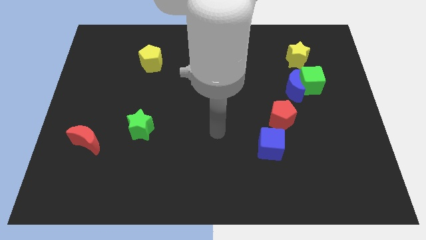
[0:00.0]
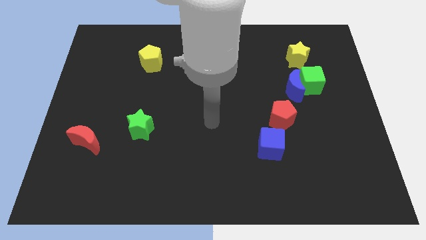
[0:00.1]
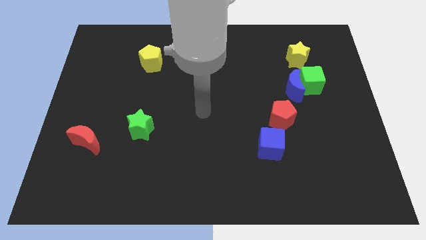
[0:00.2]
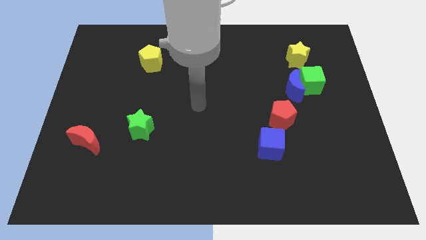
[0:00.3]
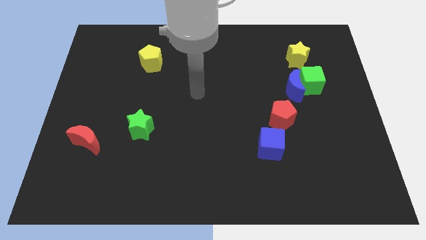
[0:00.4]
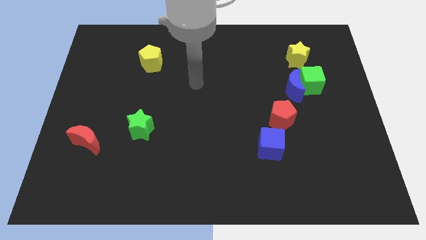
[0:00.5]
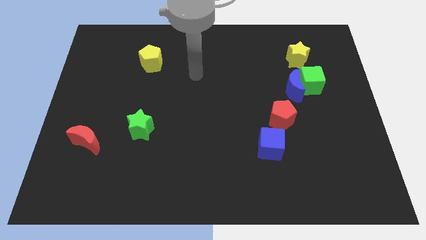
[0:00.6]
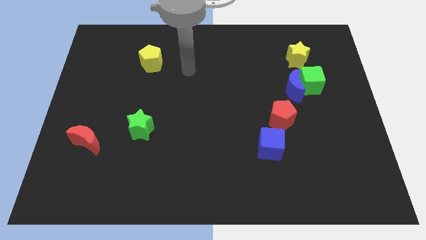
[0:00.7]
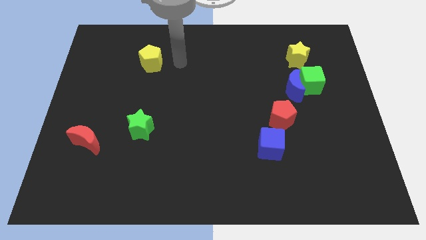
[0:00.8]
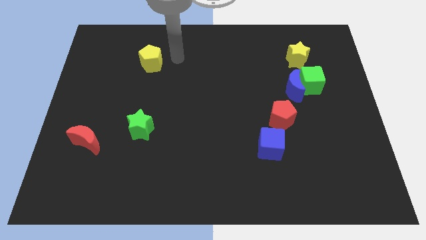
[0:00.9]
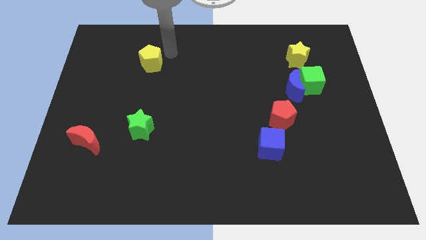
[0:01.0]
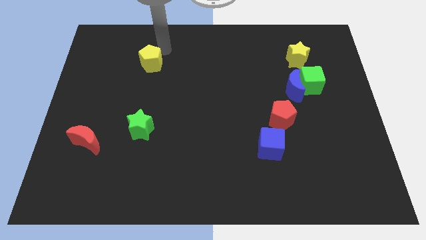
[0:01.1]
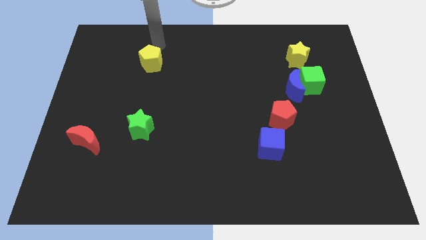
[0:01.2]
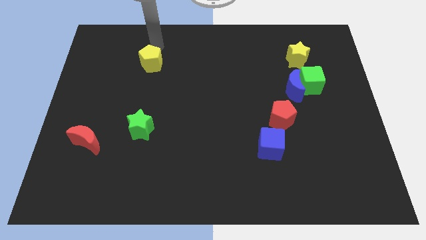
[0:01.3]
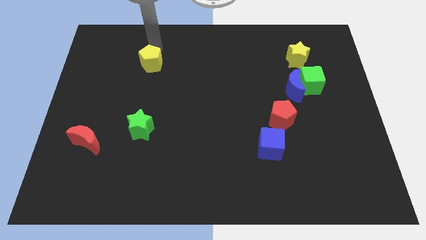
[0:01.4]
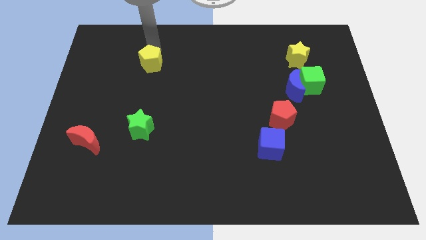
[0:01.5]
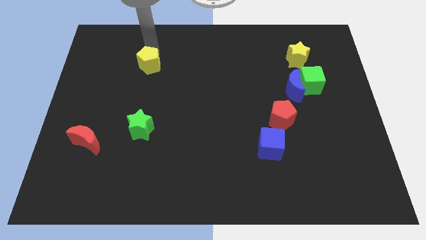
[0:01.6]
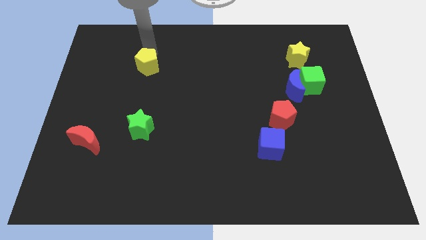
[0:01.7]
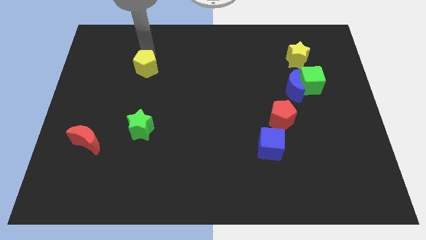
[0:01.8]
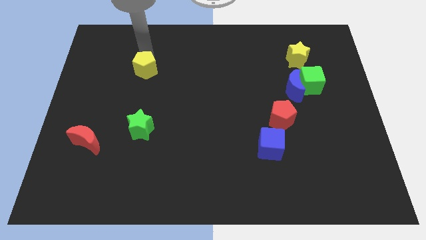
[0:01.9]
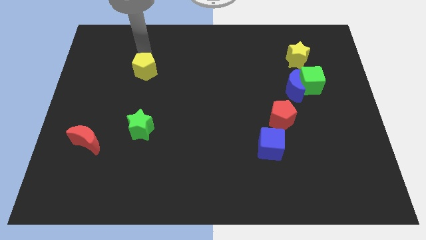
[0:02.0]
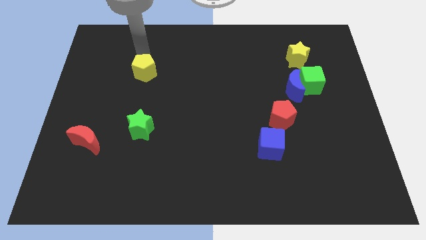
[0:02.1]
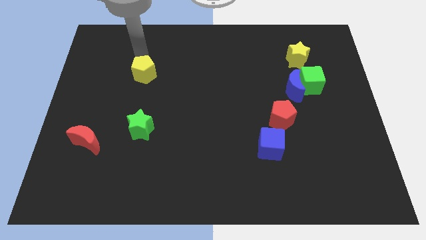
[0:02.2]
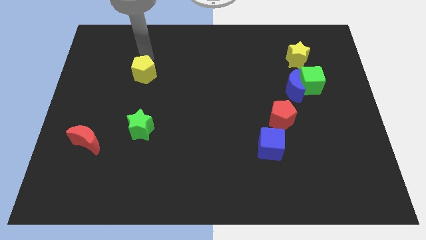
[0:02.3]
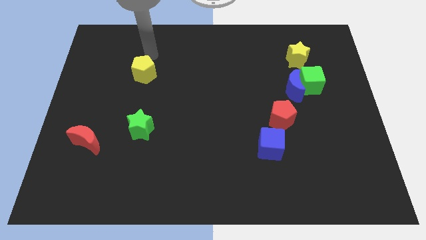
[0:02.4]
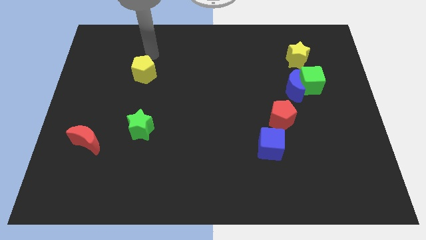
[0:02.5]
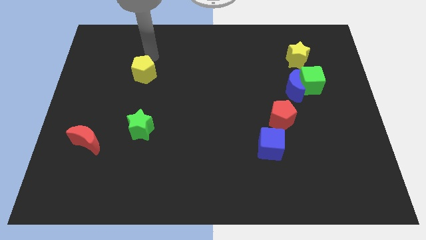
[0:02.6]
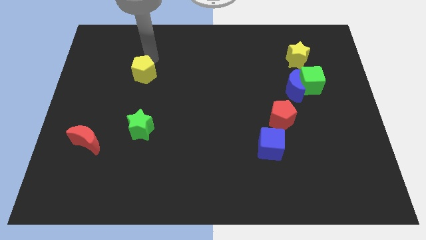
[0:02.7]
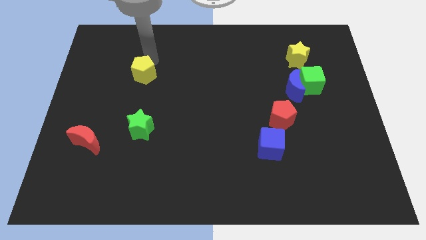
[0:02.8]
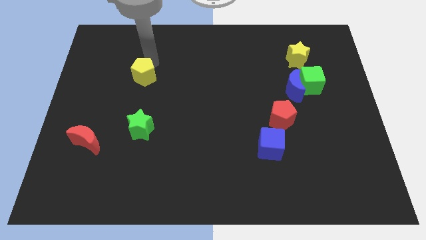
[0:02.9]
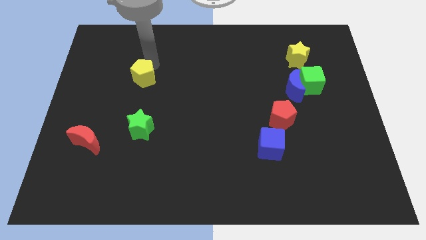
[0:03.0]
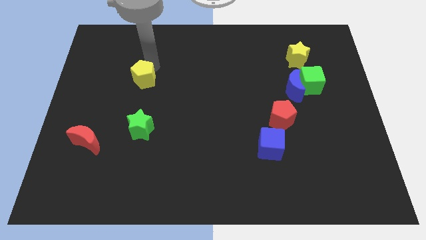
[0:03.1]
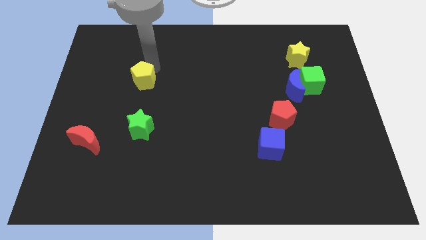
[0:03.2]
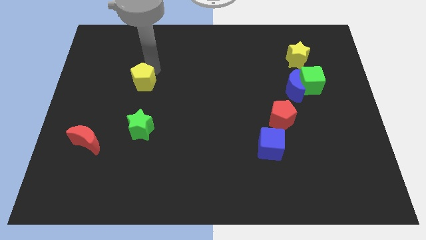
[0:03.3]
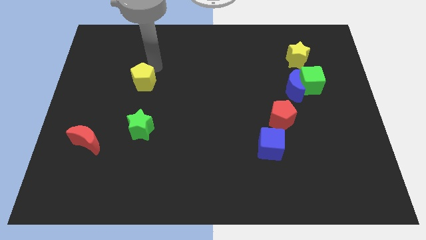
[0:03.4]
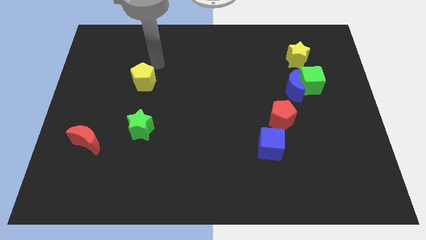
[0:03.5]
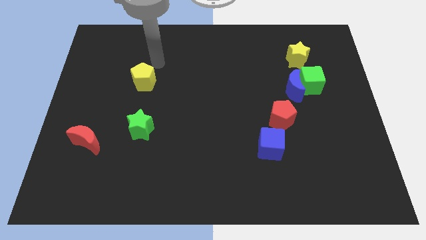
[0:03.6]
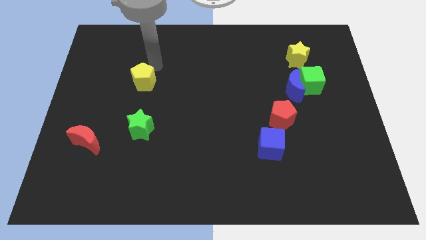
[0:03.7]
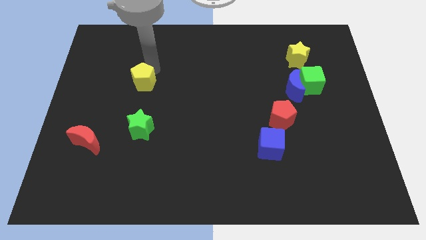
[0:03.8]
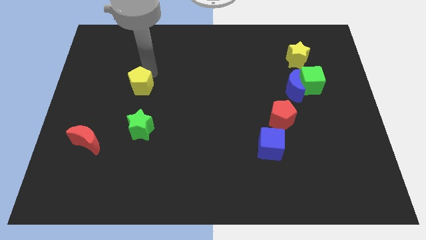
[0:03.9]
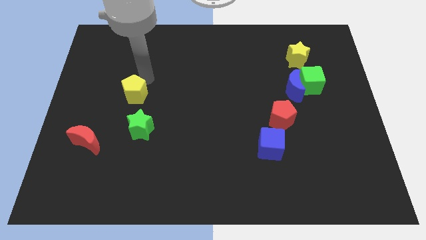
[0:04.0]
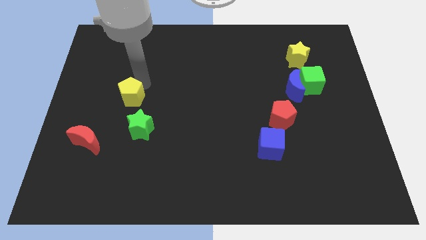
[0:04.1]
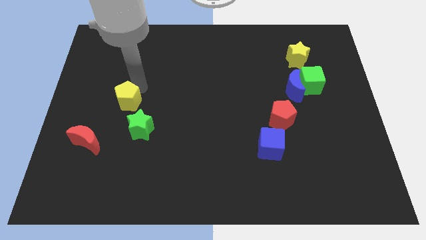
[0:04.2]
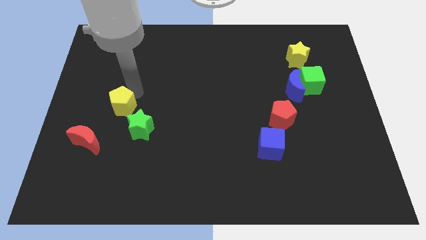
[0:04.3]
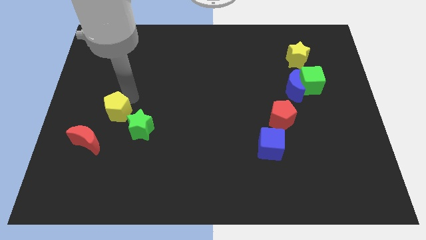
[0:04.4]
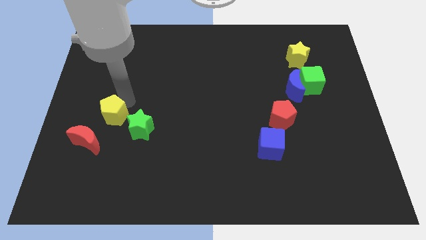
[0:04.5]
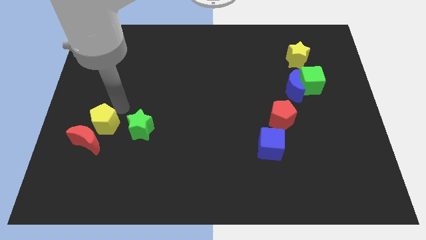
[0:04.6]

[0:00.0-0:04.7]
put the yellow pentagon to the red moon

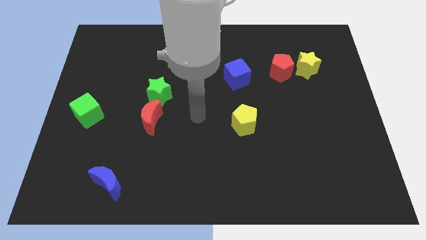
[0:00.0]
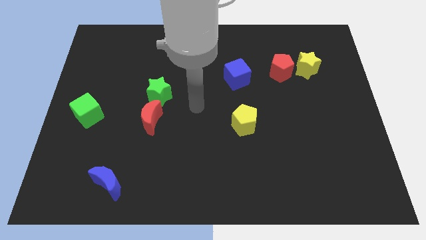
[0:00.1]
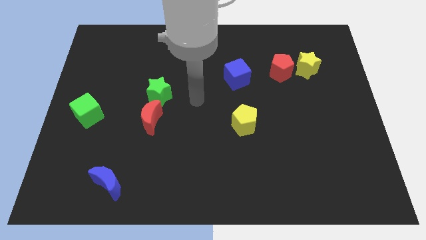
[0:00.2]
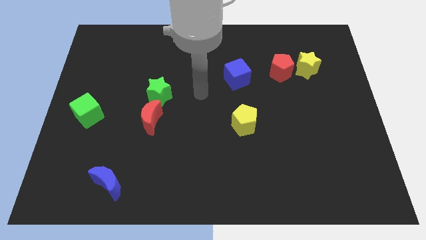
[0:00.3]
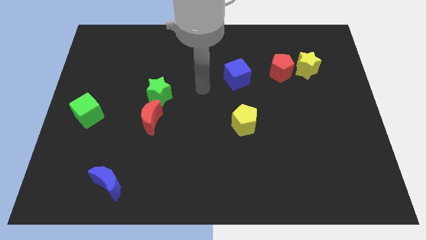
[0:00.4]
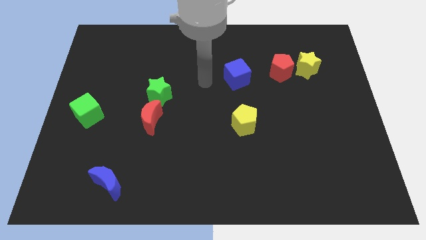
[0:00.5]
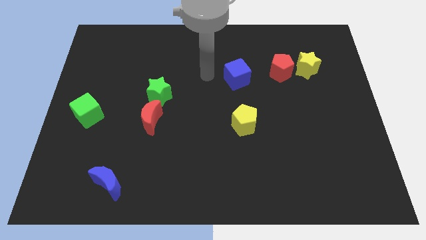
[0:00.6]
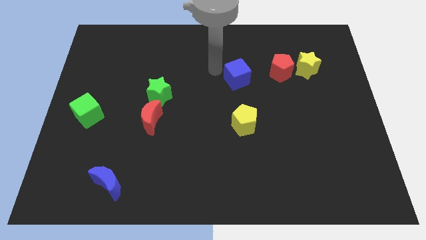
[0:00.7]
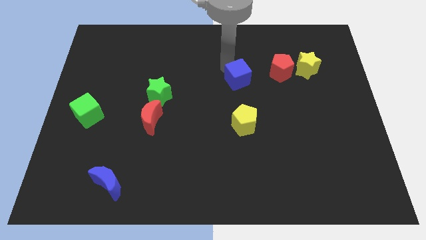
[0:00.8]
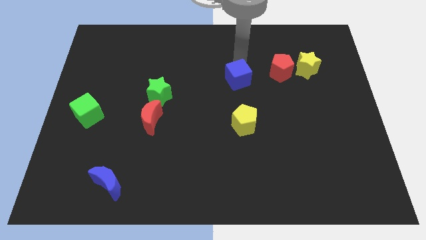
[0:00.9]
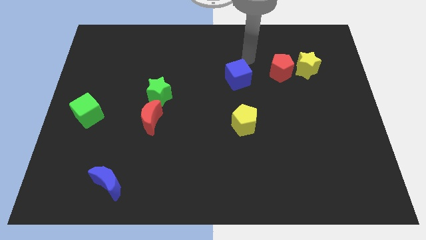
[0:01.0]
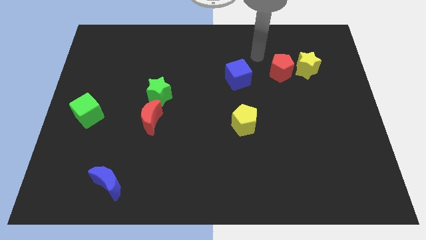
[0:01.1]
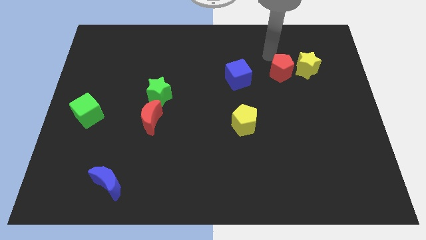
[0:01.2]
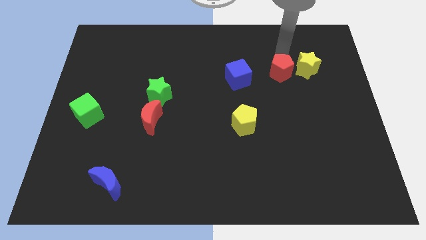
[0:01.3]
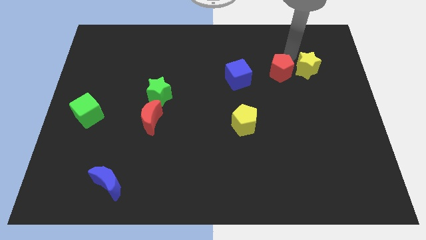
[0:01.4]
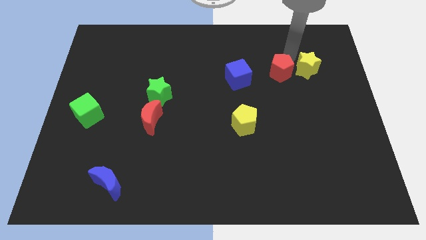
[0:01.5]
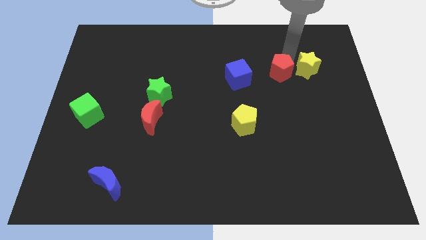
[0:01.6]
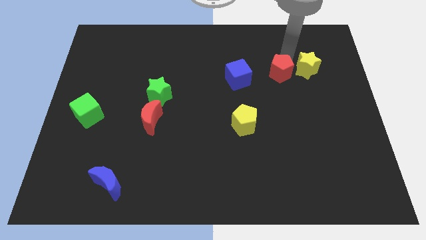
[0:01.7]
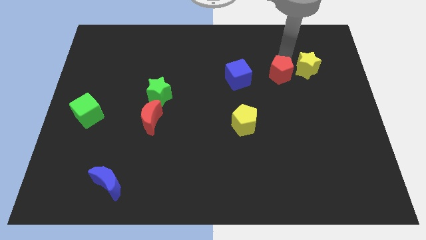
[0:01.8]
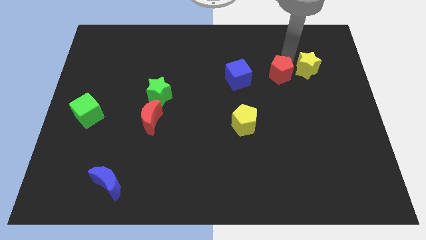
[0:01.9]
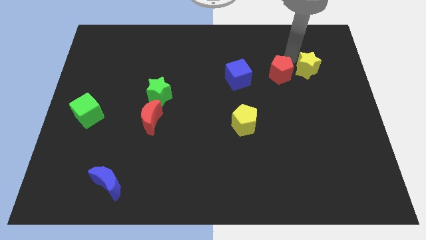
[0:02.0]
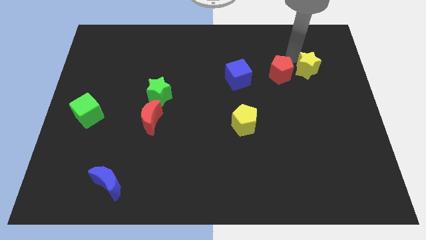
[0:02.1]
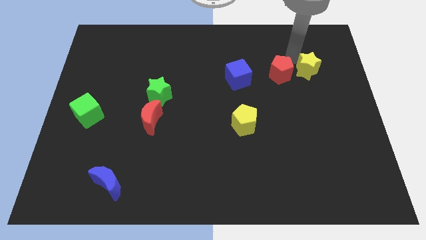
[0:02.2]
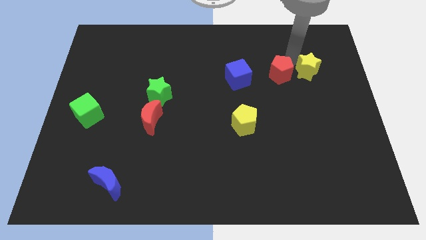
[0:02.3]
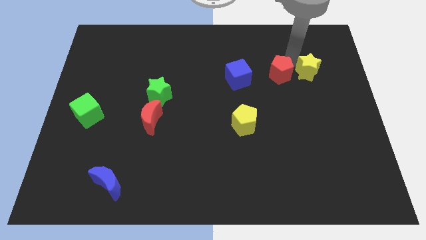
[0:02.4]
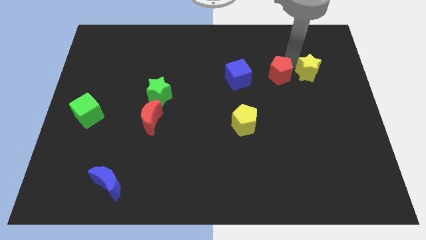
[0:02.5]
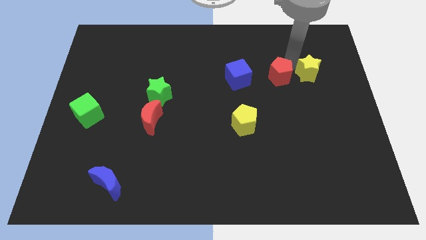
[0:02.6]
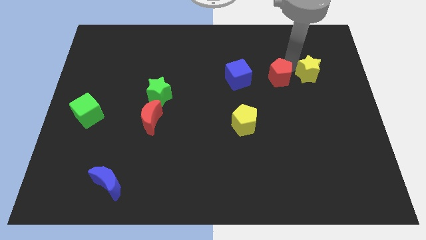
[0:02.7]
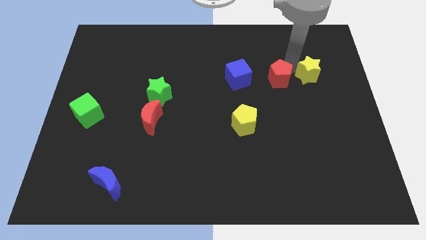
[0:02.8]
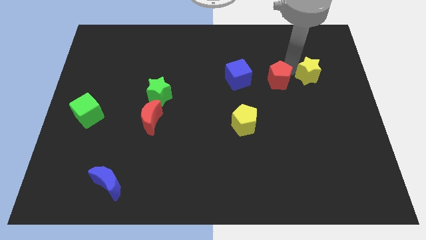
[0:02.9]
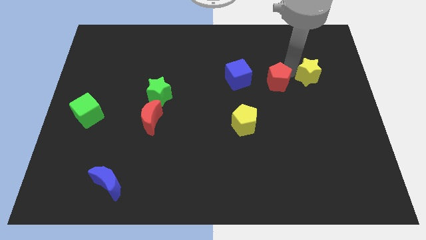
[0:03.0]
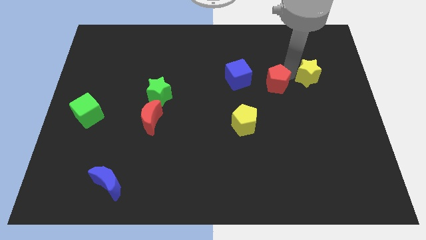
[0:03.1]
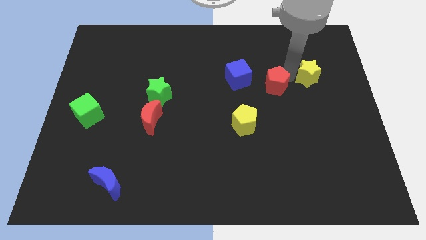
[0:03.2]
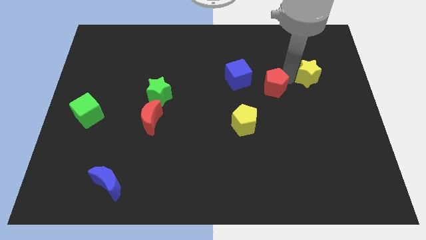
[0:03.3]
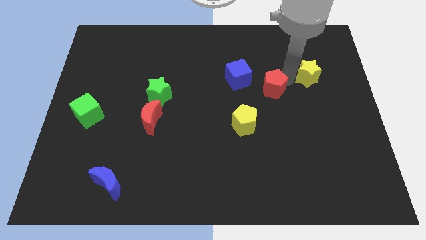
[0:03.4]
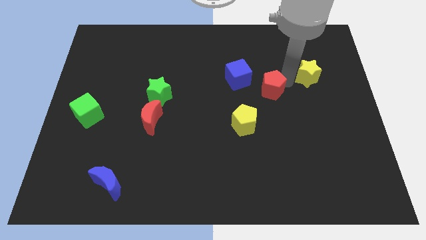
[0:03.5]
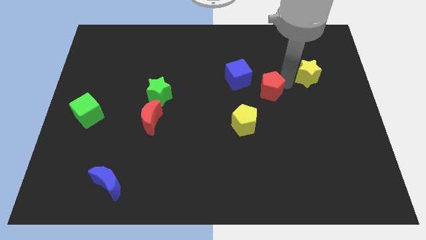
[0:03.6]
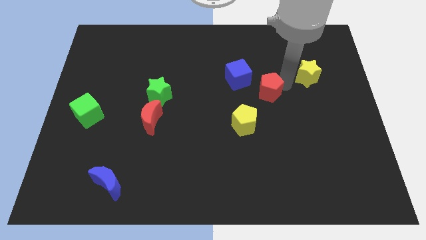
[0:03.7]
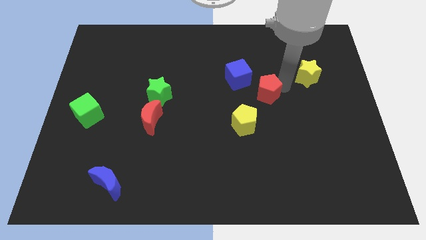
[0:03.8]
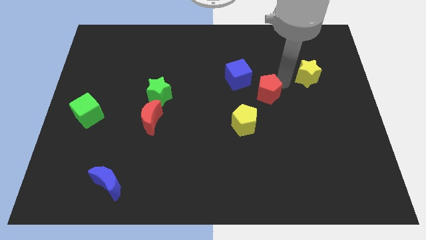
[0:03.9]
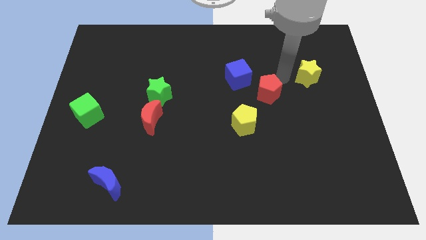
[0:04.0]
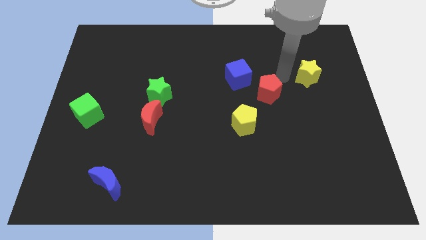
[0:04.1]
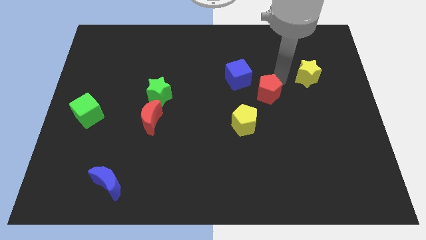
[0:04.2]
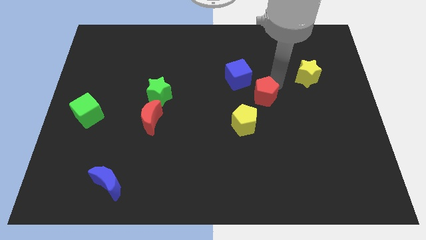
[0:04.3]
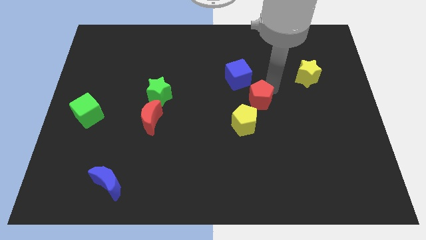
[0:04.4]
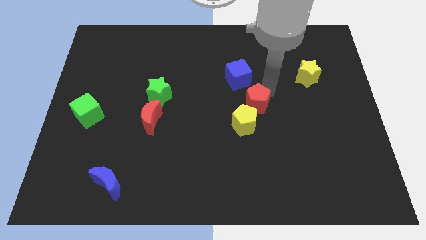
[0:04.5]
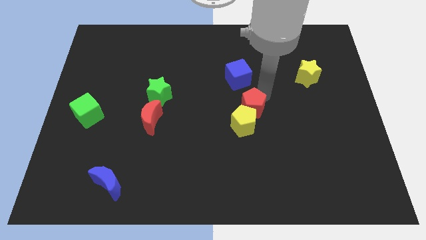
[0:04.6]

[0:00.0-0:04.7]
put the red pentagon close to the yellow pentagon
